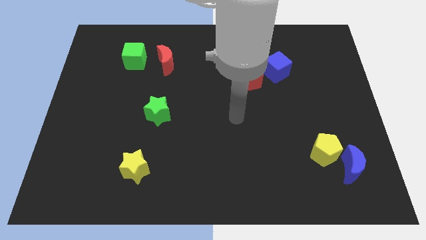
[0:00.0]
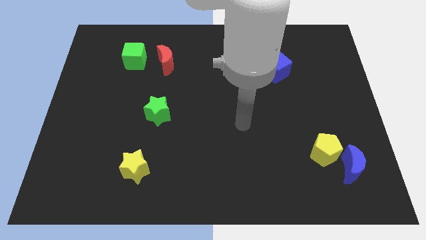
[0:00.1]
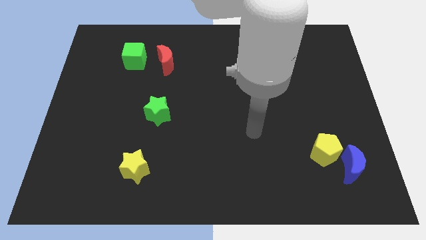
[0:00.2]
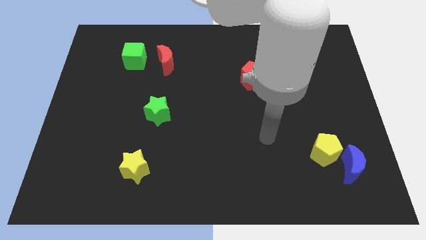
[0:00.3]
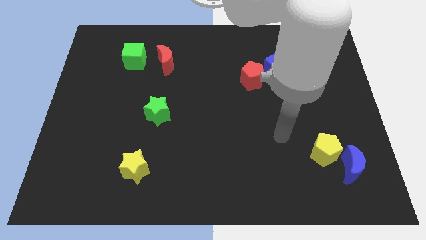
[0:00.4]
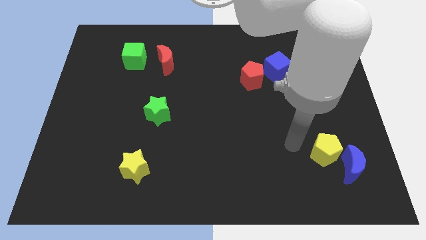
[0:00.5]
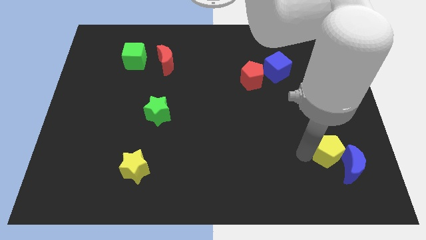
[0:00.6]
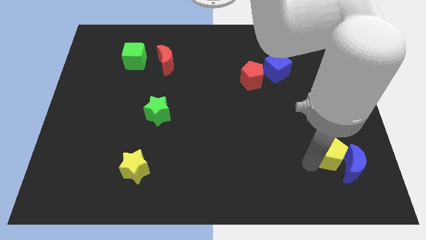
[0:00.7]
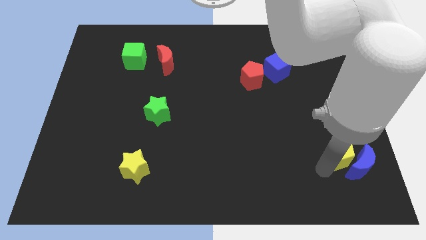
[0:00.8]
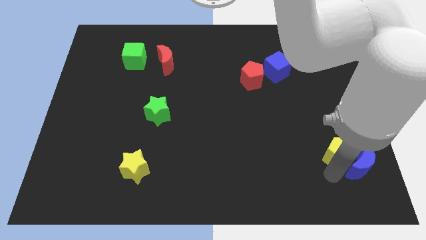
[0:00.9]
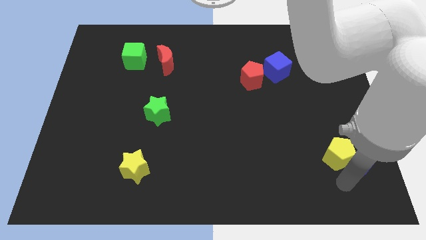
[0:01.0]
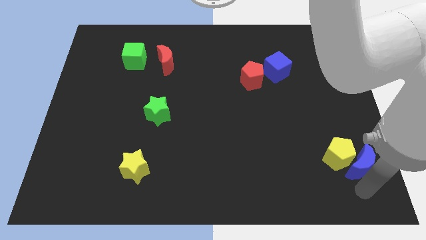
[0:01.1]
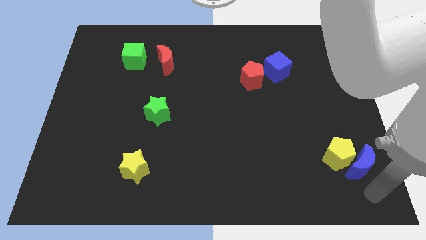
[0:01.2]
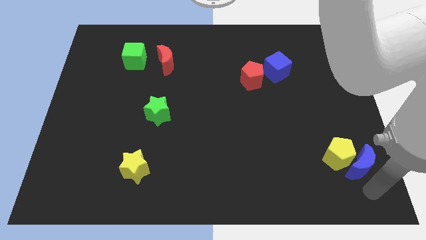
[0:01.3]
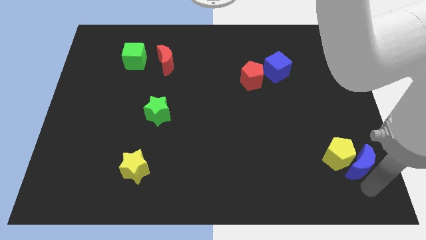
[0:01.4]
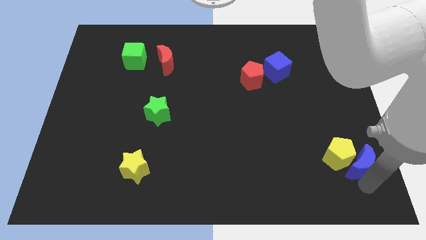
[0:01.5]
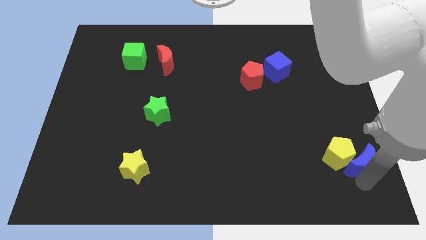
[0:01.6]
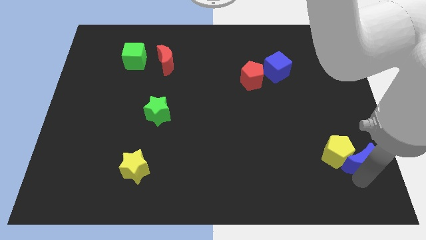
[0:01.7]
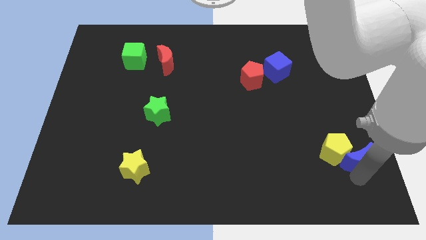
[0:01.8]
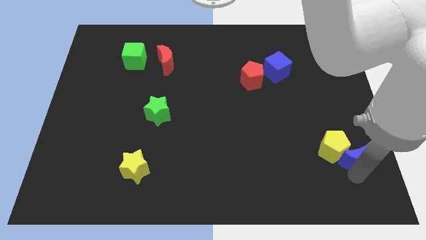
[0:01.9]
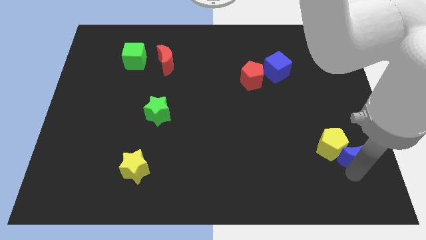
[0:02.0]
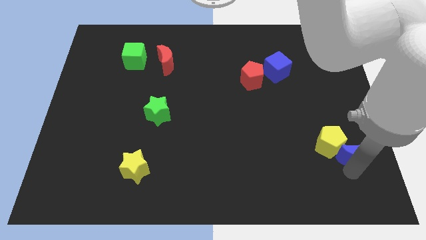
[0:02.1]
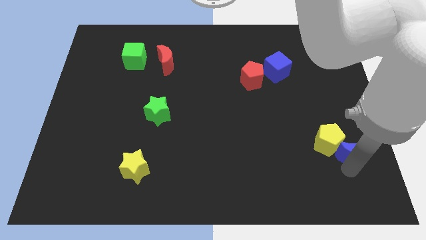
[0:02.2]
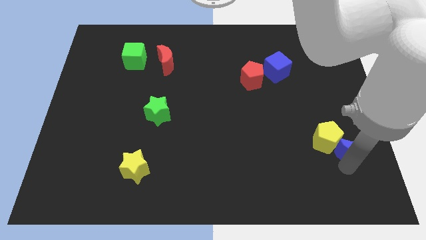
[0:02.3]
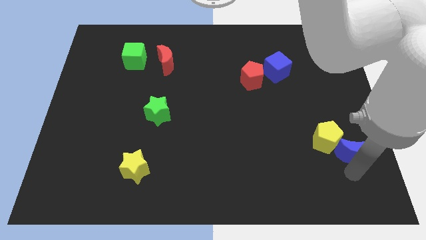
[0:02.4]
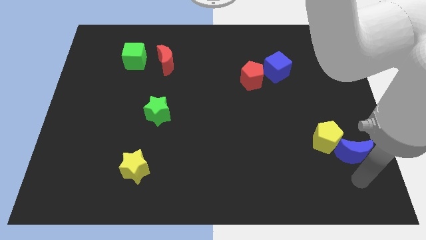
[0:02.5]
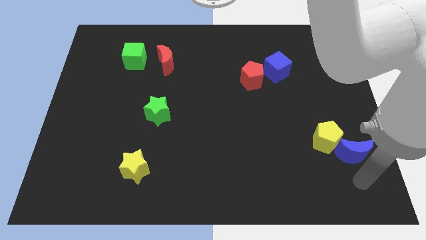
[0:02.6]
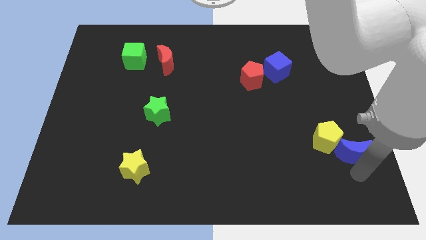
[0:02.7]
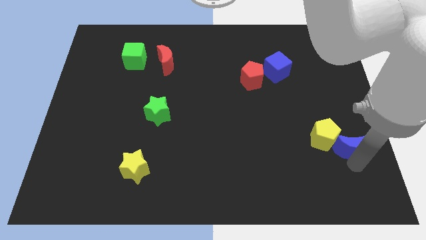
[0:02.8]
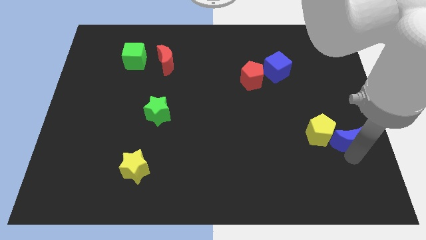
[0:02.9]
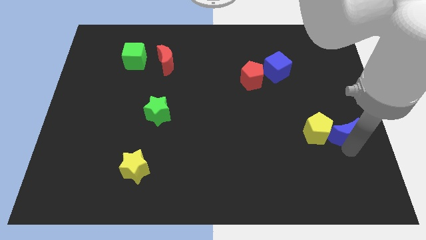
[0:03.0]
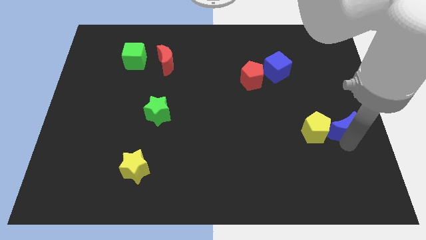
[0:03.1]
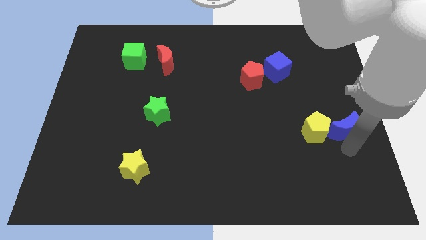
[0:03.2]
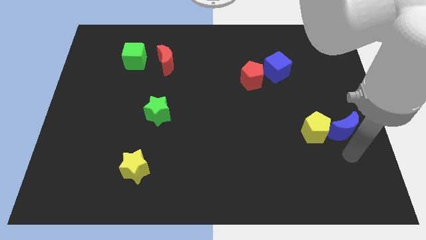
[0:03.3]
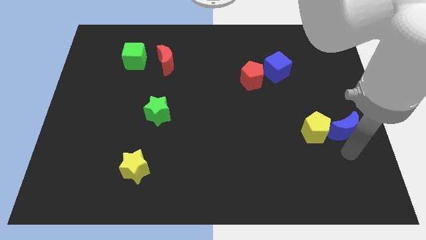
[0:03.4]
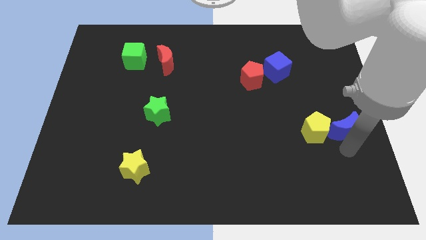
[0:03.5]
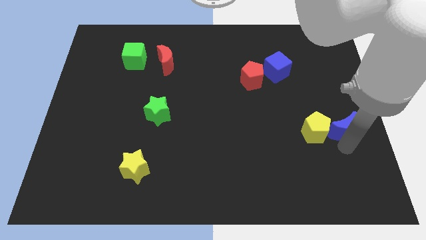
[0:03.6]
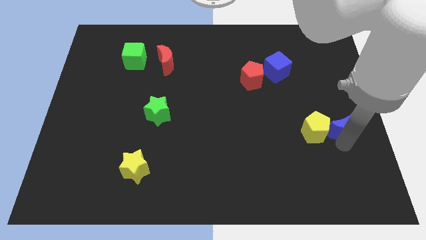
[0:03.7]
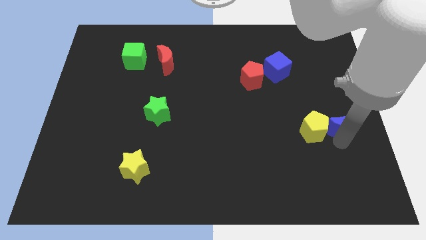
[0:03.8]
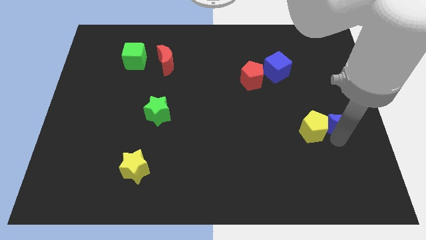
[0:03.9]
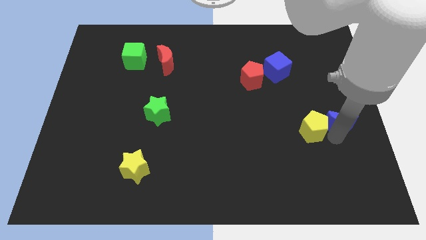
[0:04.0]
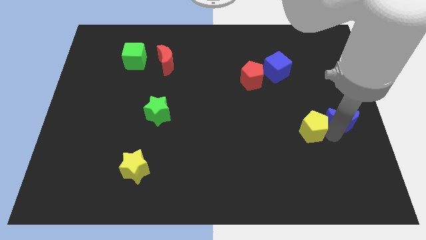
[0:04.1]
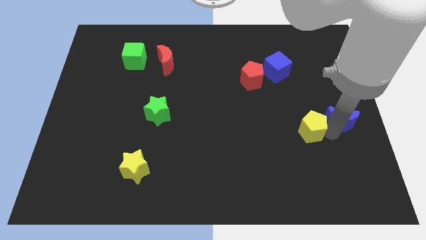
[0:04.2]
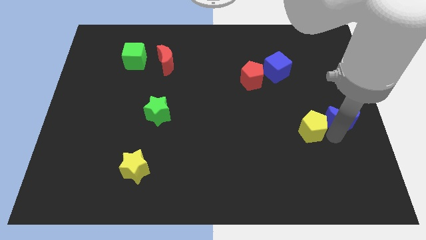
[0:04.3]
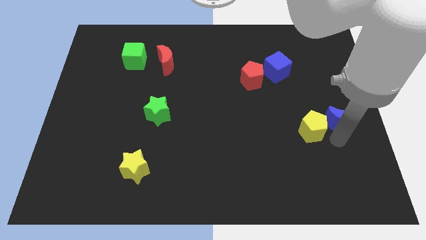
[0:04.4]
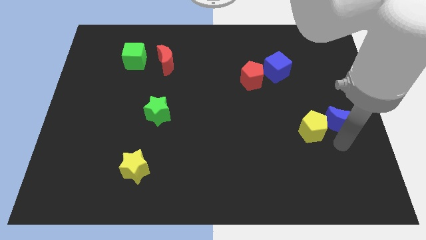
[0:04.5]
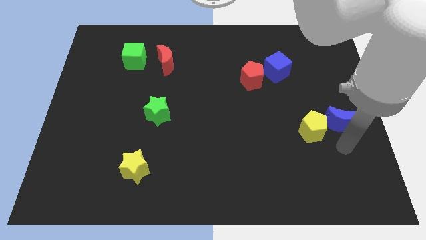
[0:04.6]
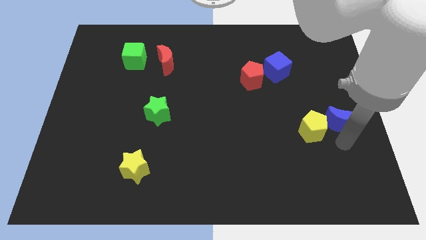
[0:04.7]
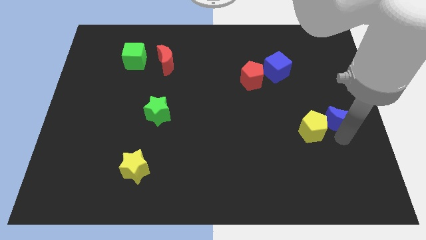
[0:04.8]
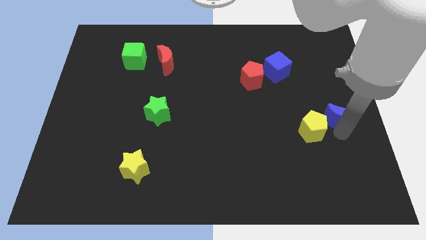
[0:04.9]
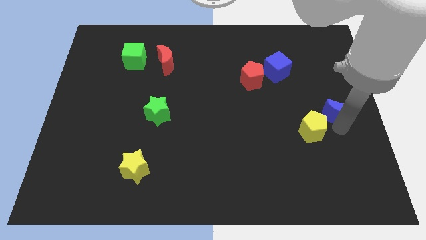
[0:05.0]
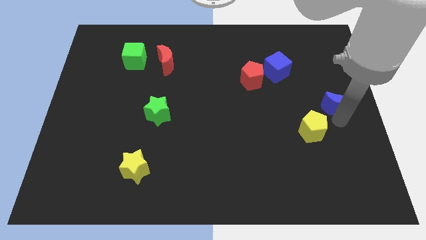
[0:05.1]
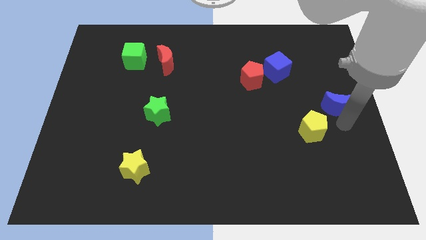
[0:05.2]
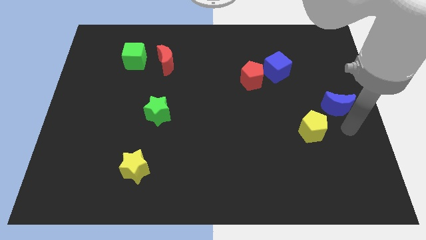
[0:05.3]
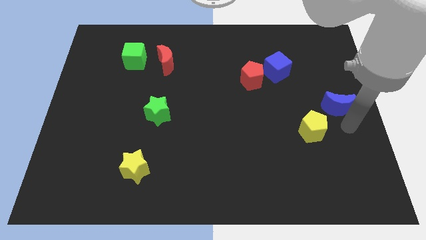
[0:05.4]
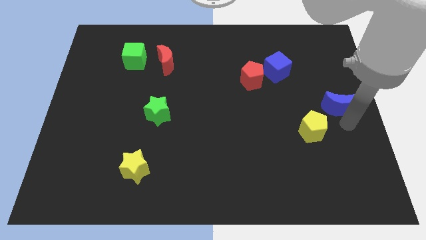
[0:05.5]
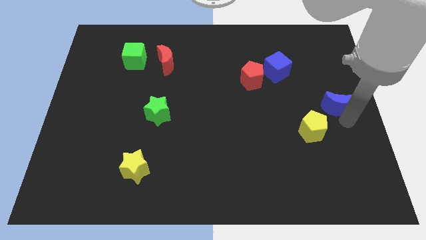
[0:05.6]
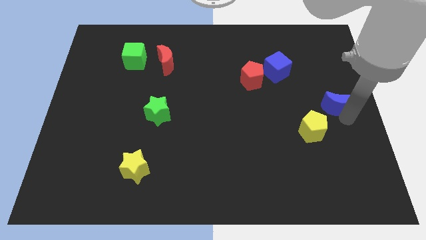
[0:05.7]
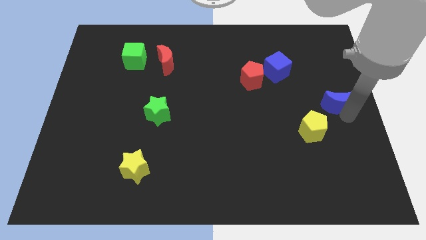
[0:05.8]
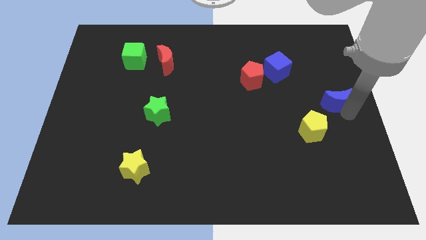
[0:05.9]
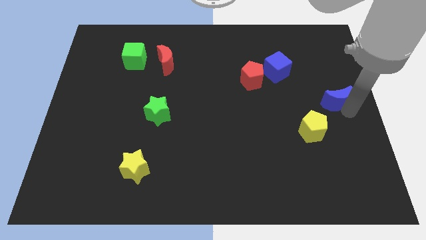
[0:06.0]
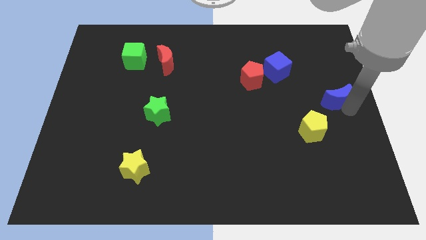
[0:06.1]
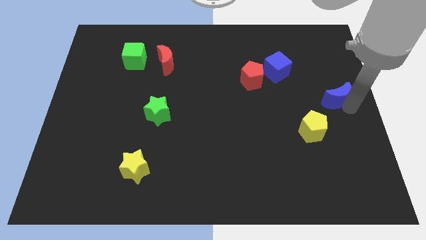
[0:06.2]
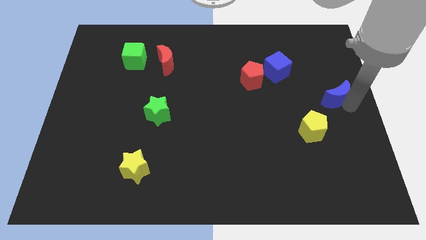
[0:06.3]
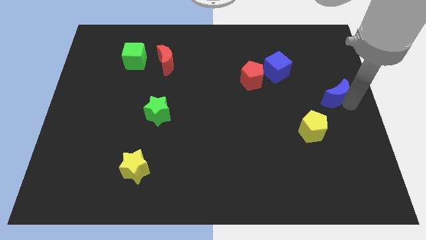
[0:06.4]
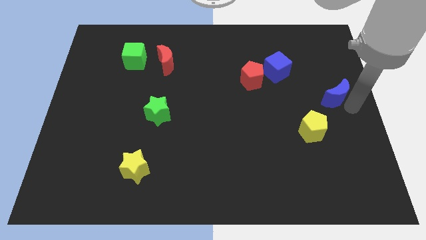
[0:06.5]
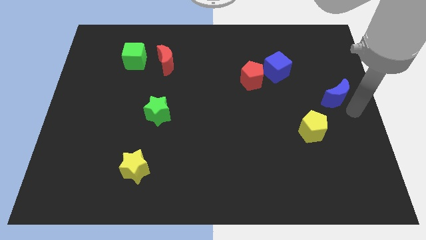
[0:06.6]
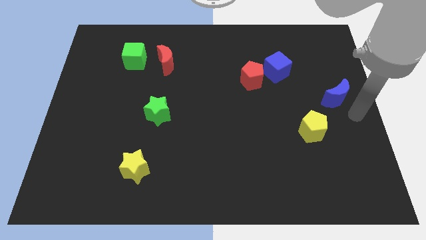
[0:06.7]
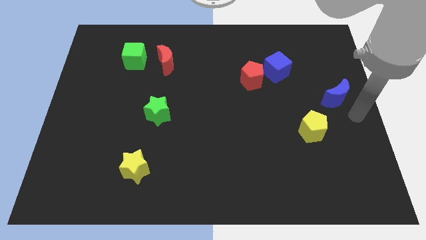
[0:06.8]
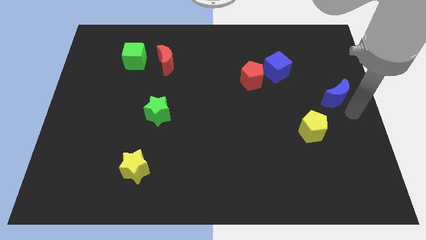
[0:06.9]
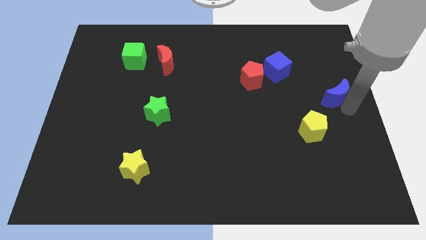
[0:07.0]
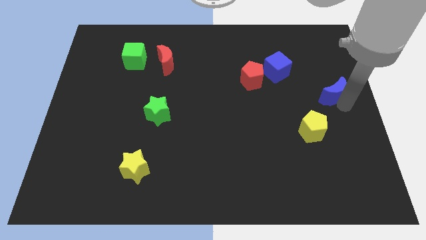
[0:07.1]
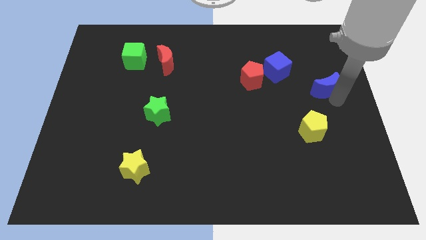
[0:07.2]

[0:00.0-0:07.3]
slide the blue moon upwards

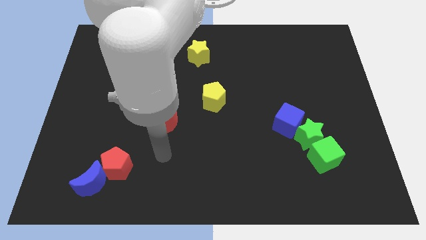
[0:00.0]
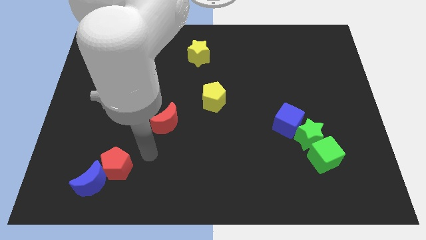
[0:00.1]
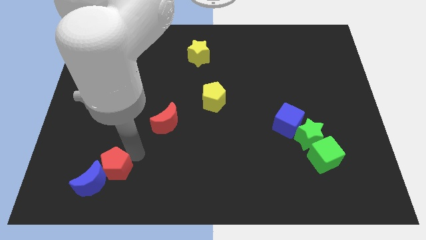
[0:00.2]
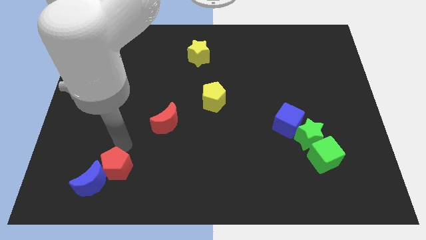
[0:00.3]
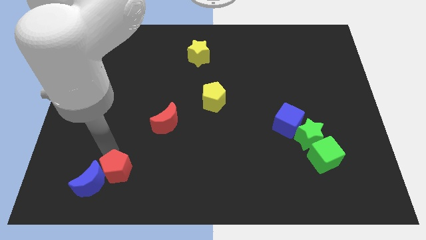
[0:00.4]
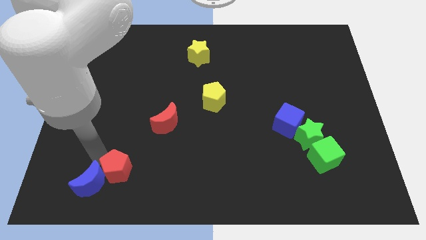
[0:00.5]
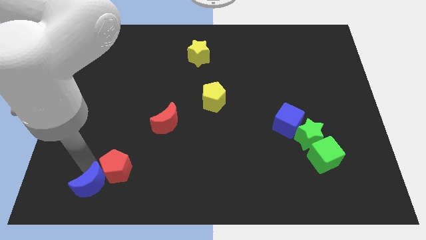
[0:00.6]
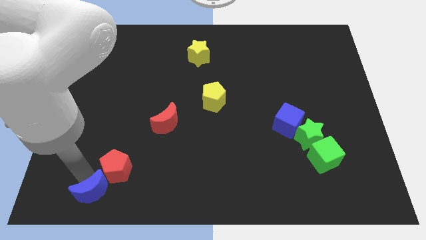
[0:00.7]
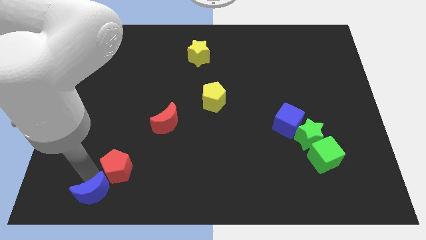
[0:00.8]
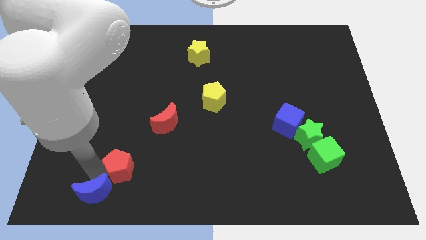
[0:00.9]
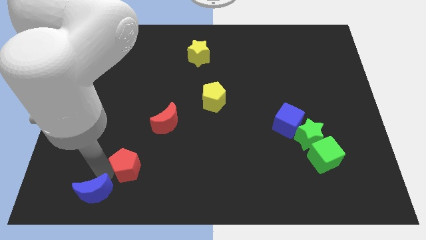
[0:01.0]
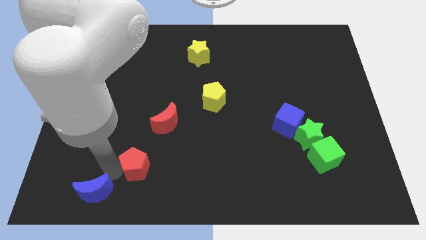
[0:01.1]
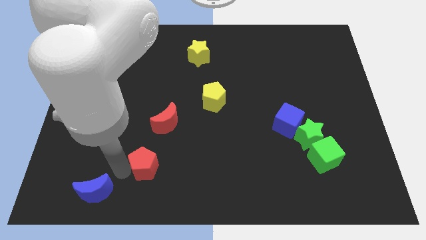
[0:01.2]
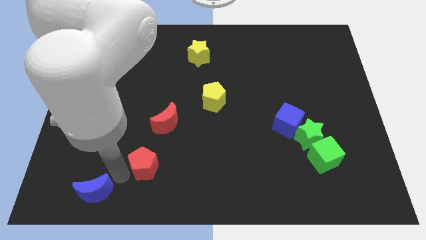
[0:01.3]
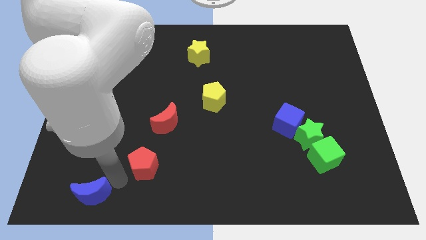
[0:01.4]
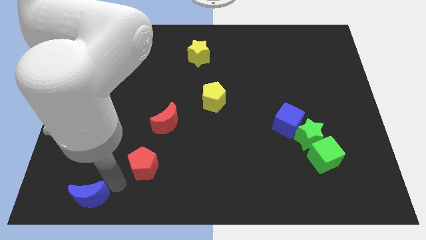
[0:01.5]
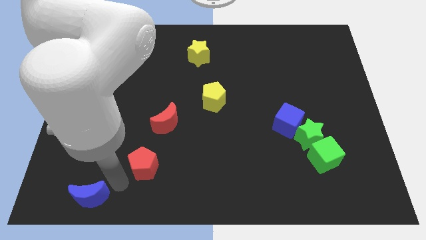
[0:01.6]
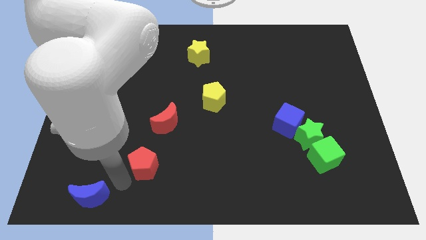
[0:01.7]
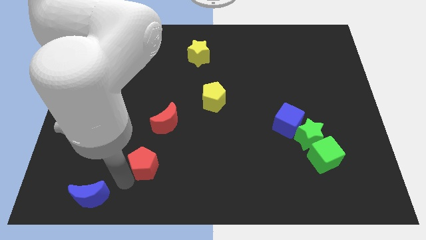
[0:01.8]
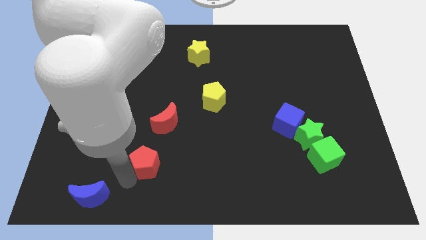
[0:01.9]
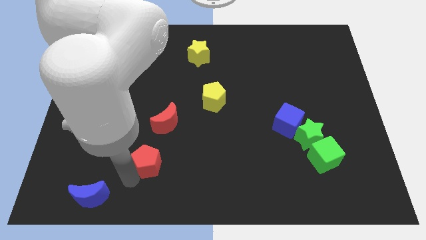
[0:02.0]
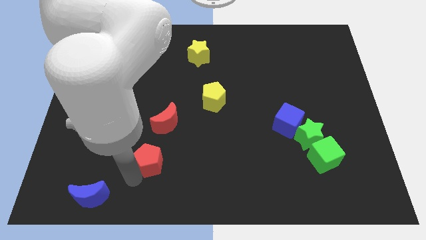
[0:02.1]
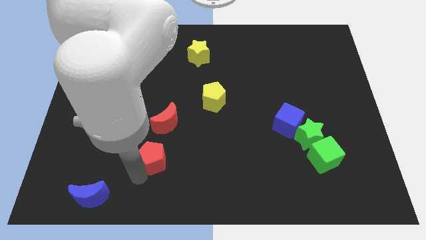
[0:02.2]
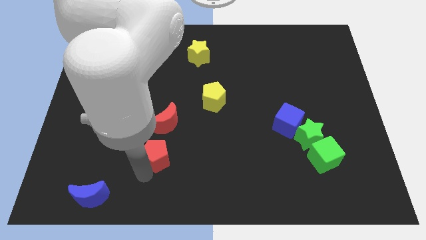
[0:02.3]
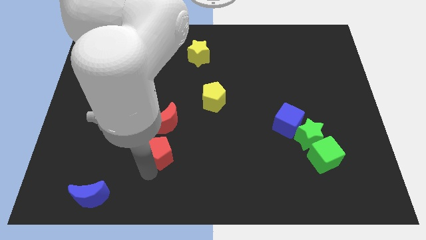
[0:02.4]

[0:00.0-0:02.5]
slightly move the red pentagon upwards and then to the right
